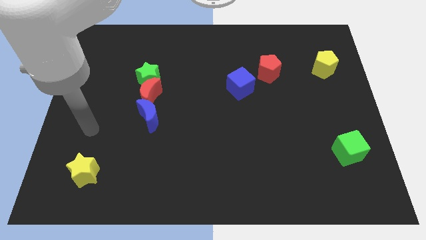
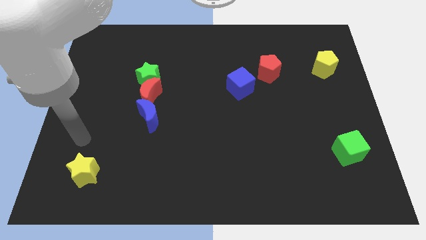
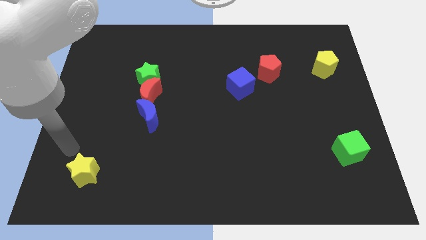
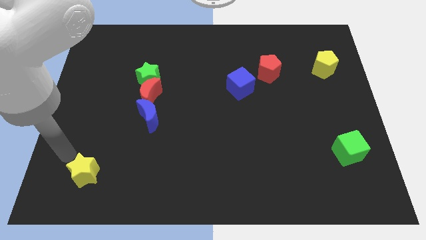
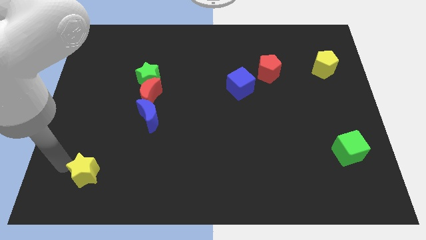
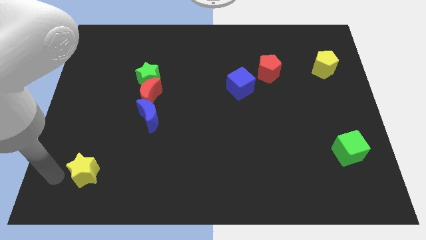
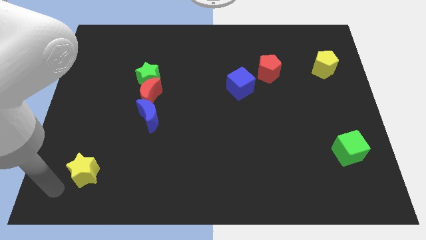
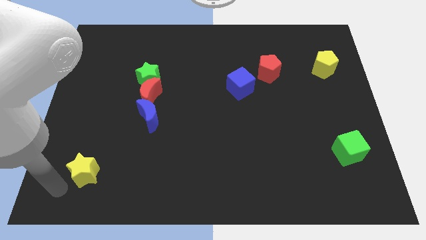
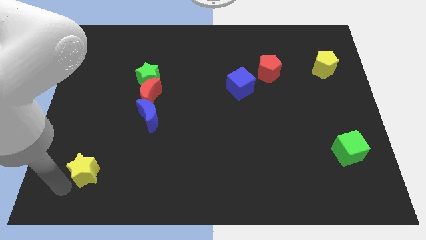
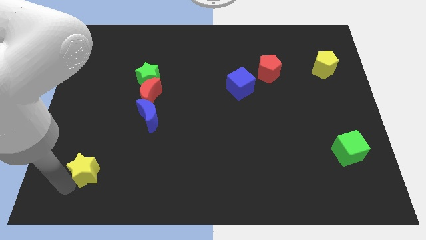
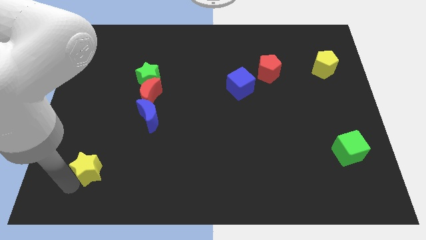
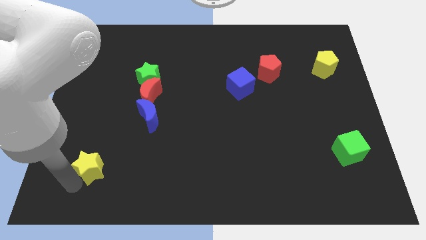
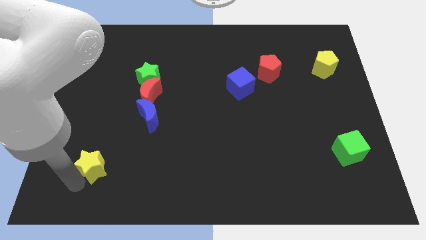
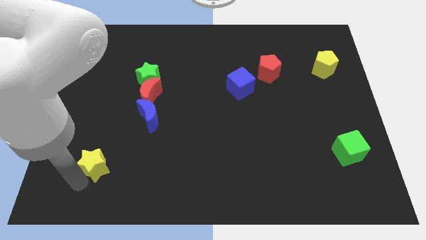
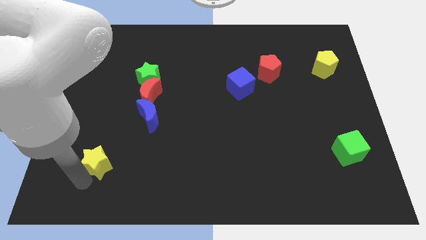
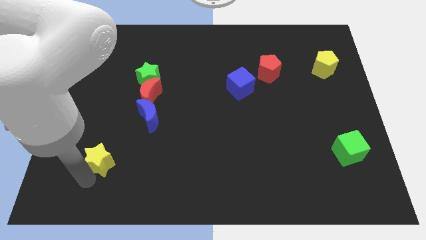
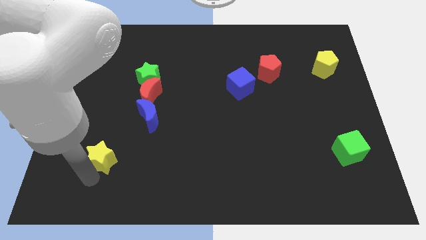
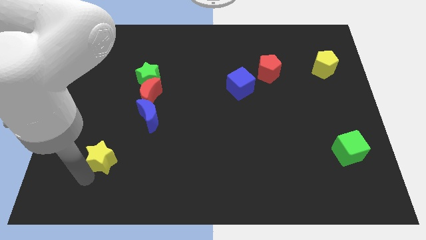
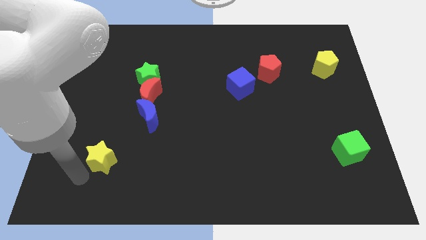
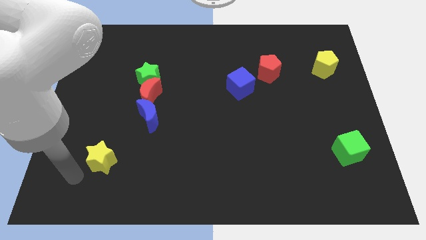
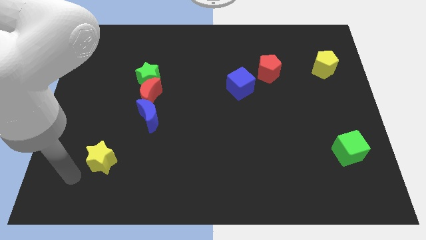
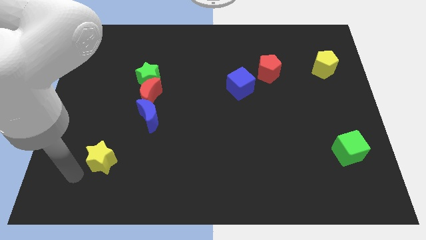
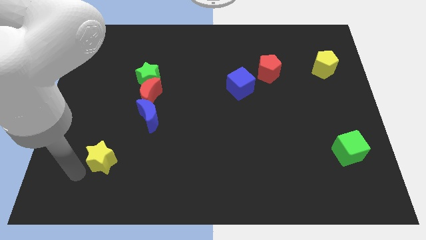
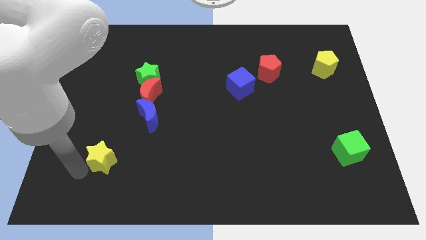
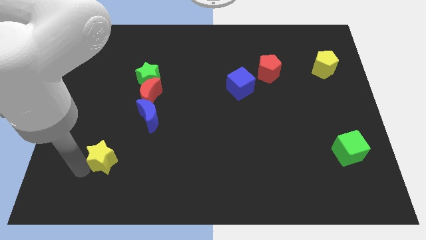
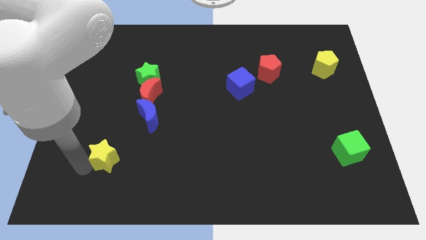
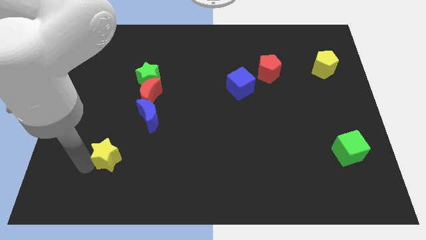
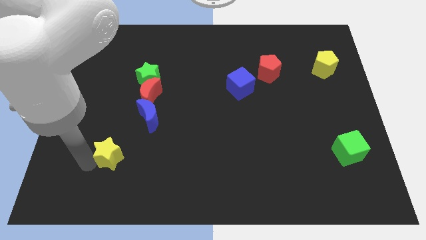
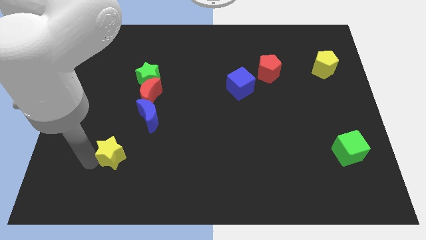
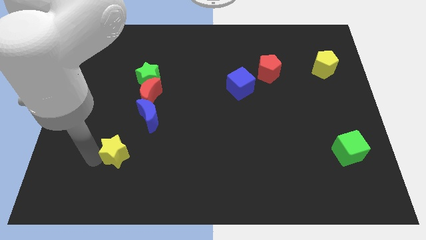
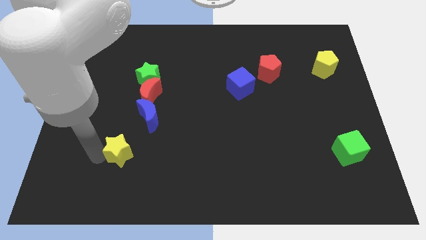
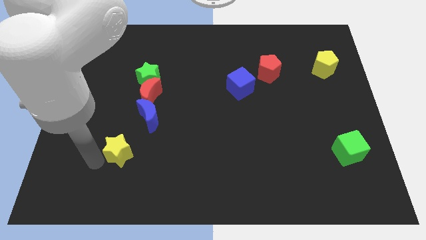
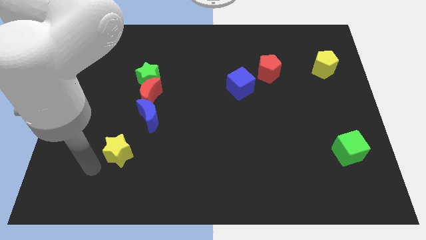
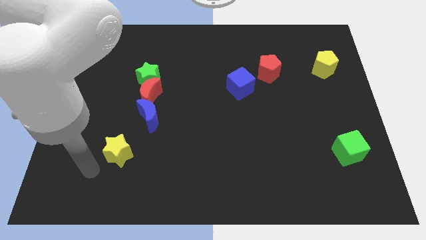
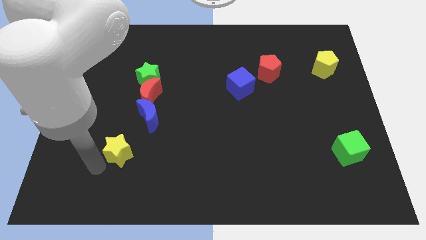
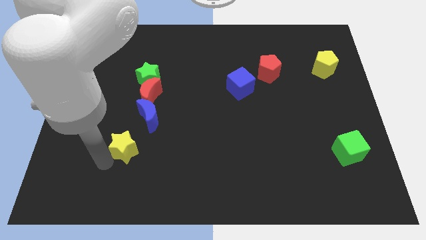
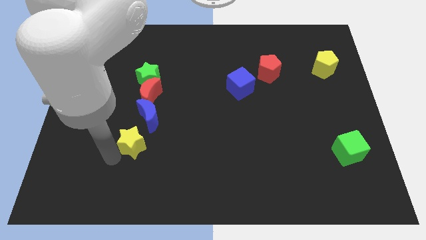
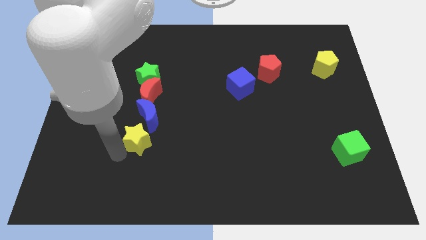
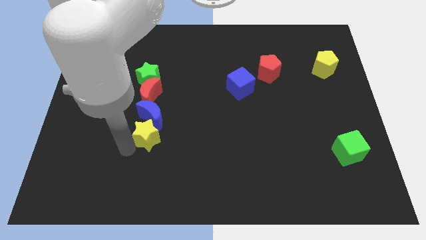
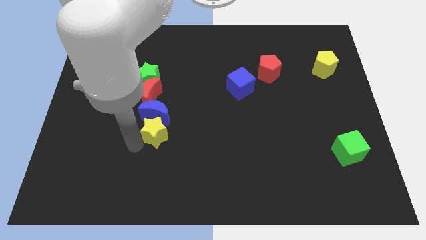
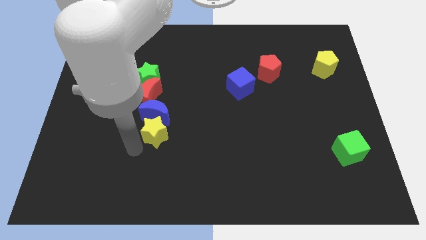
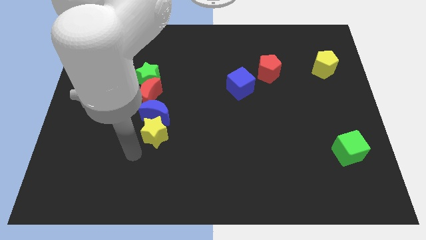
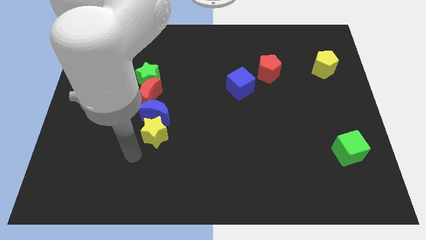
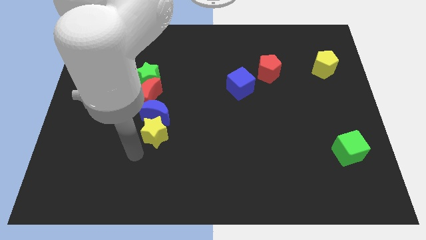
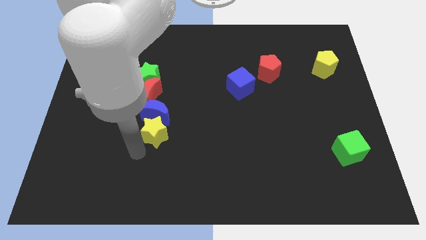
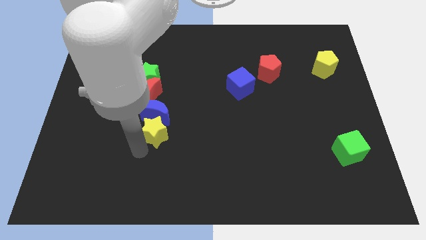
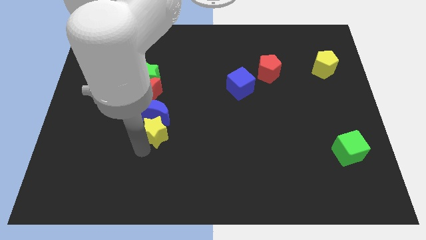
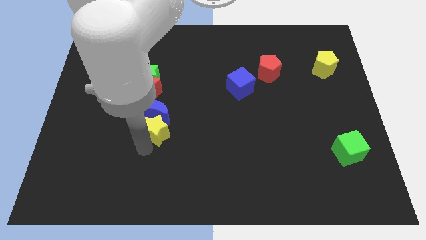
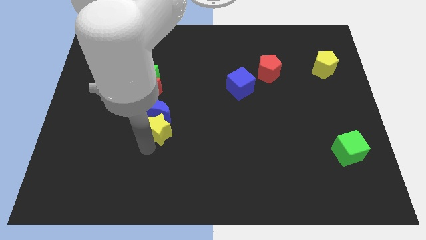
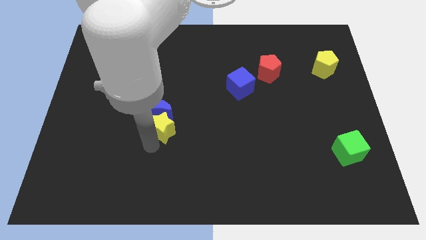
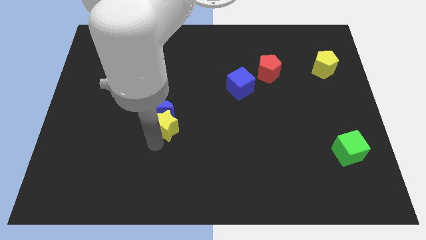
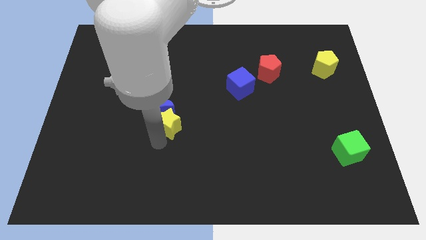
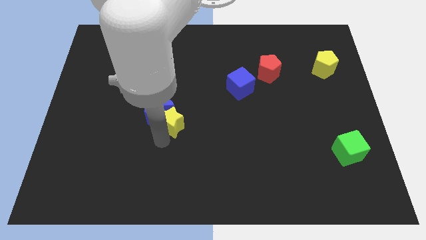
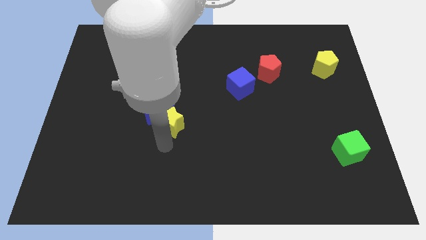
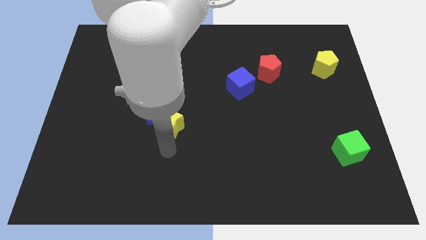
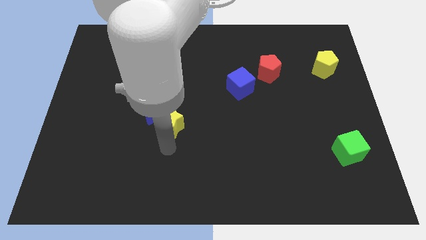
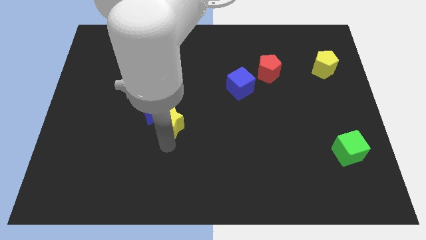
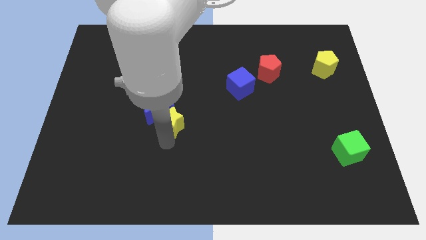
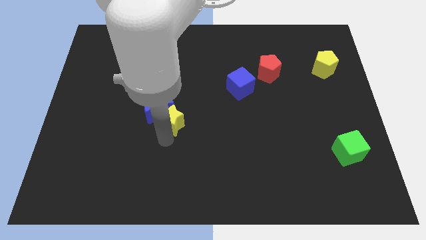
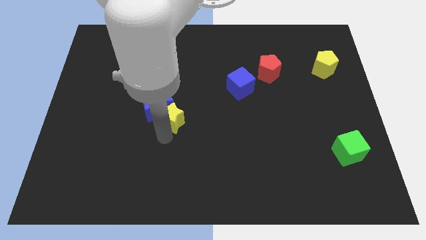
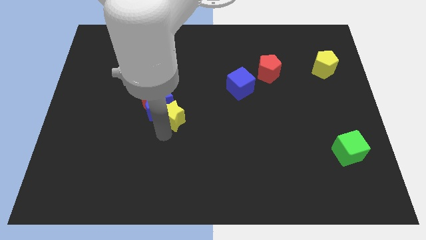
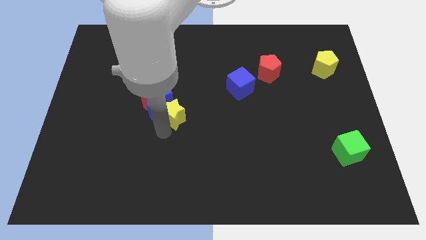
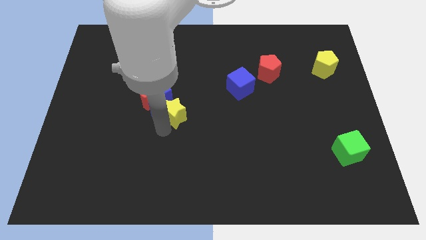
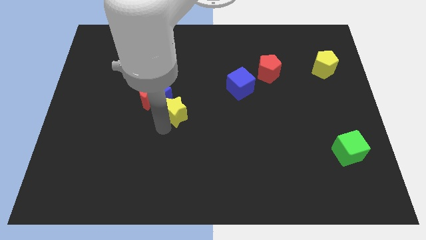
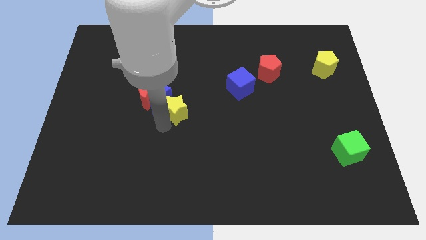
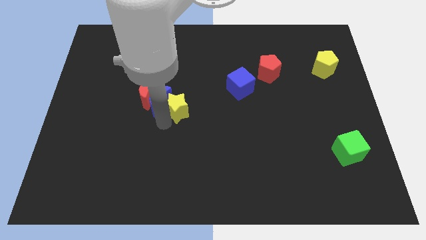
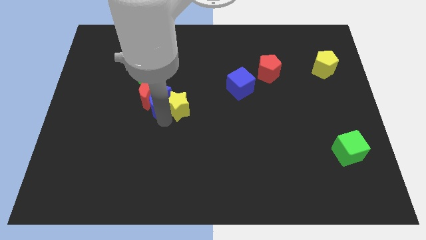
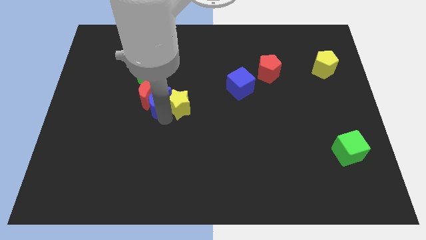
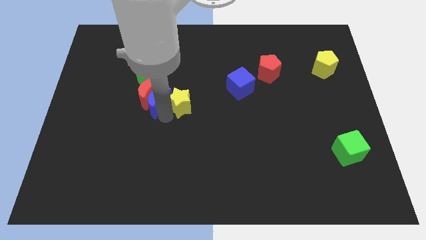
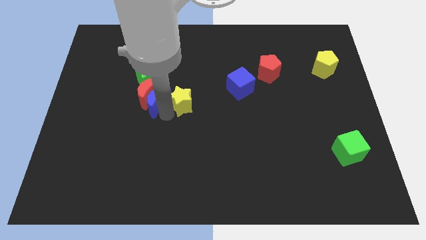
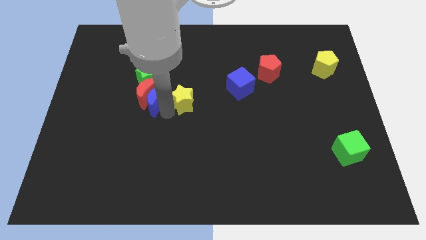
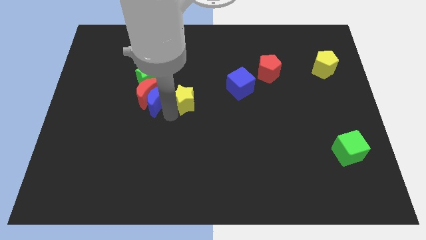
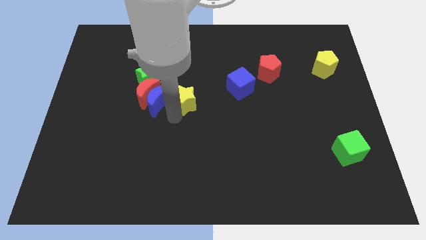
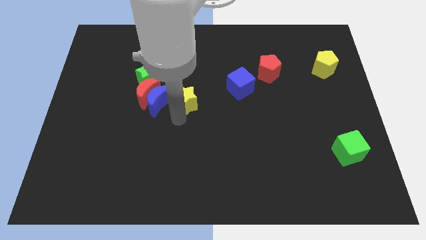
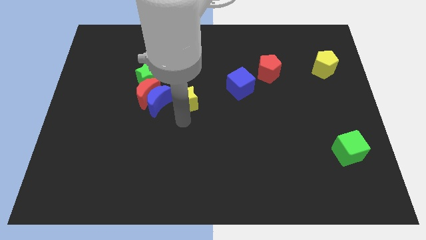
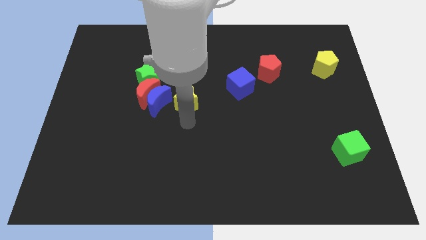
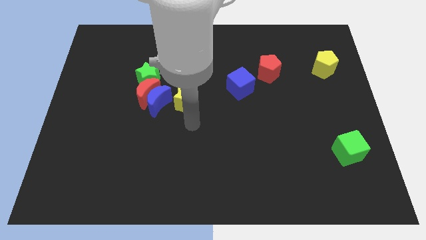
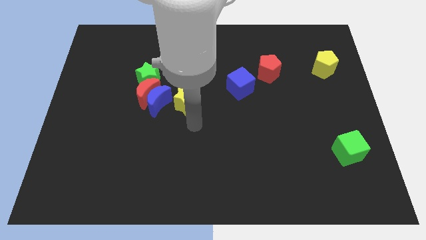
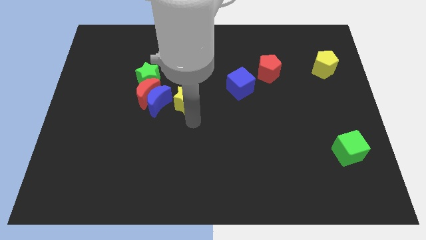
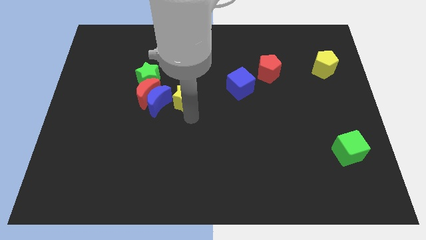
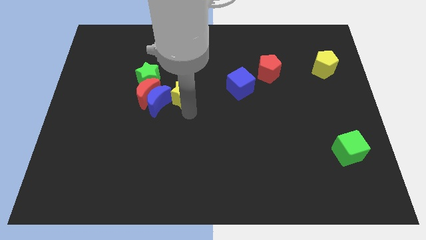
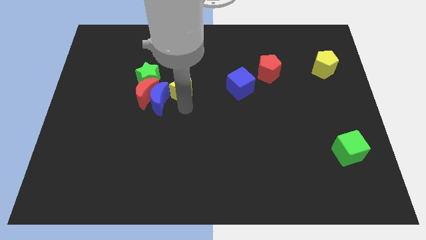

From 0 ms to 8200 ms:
put the yellow star just right of the green star
